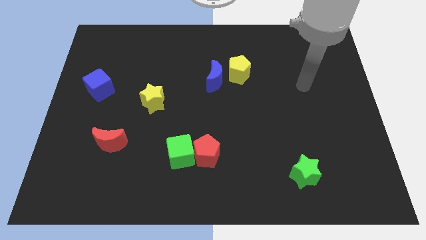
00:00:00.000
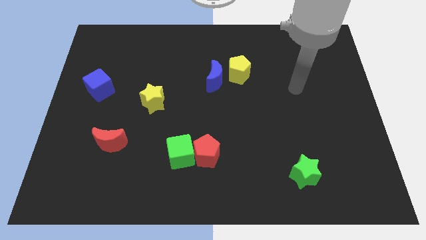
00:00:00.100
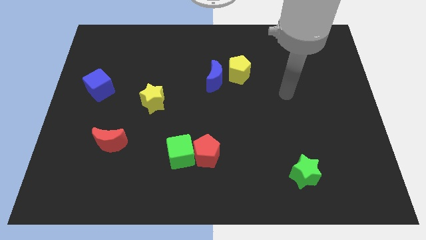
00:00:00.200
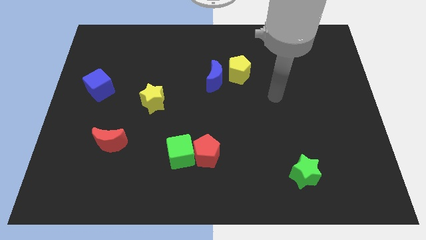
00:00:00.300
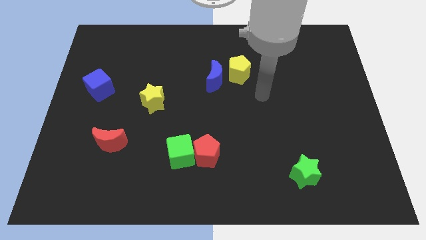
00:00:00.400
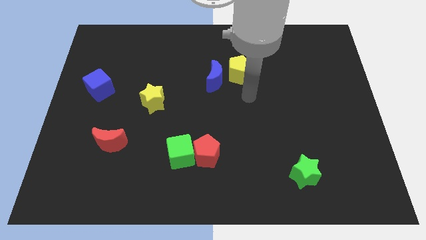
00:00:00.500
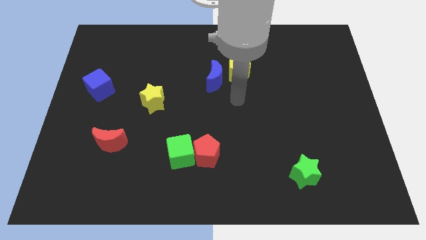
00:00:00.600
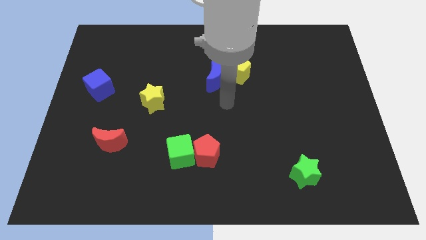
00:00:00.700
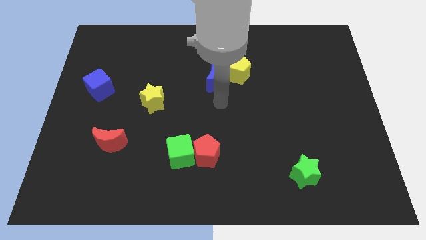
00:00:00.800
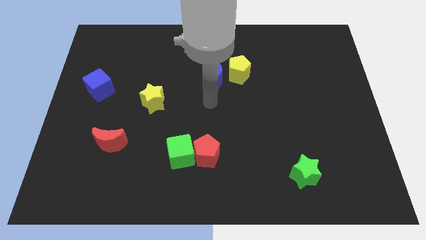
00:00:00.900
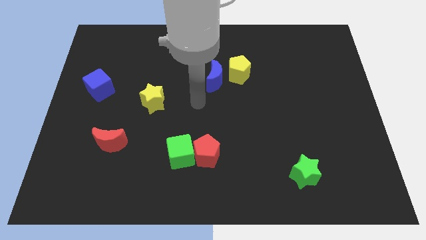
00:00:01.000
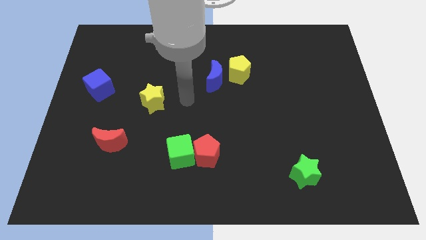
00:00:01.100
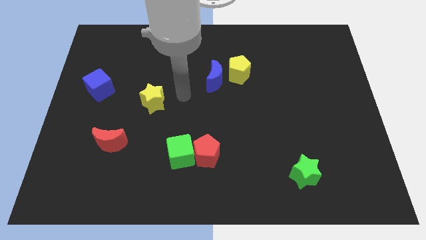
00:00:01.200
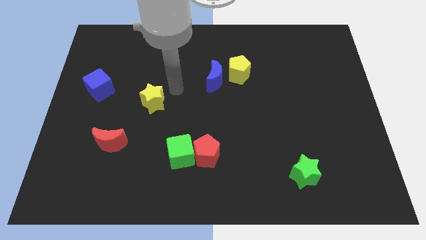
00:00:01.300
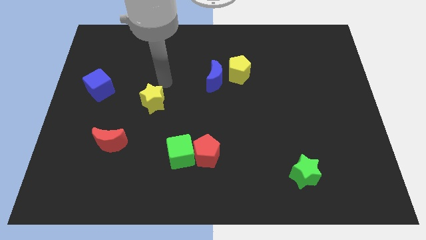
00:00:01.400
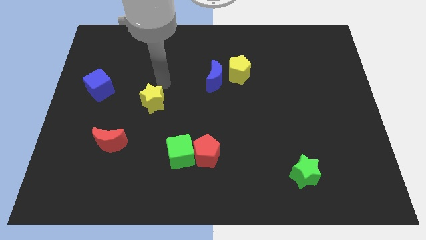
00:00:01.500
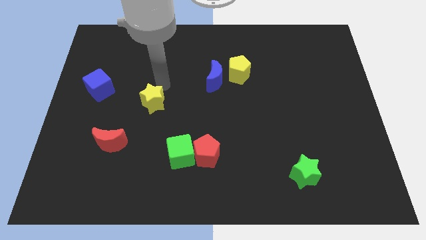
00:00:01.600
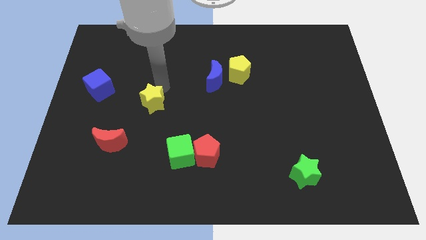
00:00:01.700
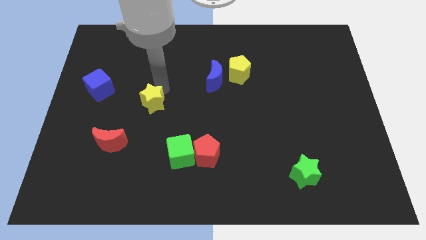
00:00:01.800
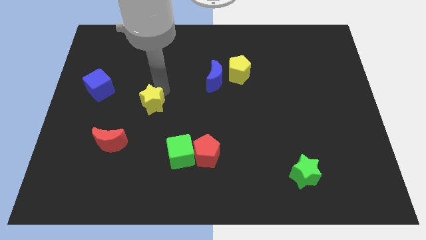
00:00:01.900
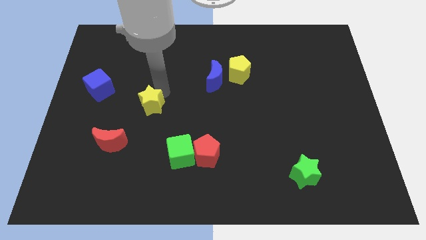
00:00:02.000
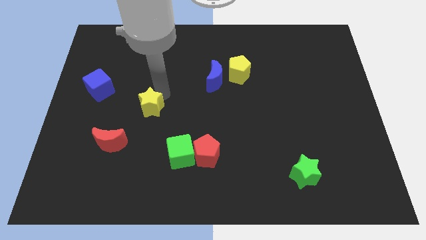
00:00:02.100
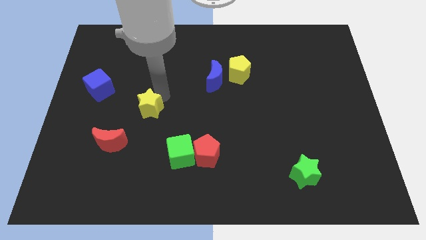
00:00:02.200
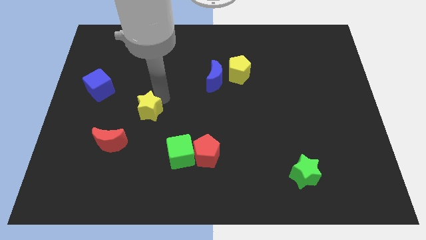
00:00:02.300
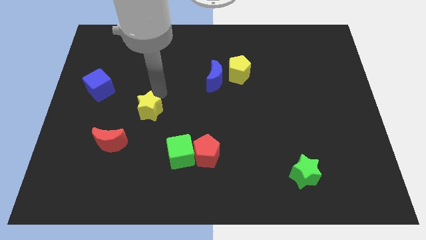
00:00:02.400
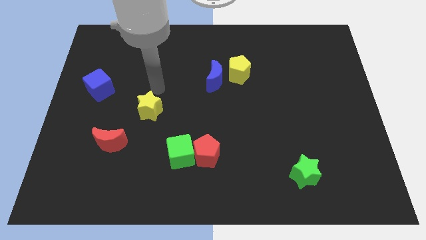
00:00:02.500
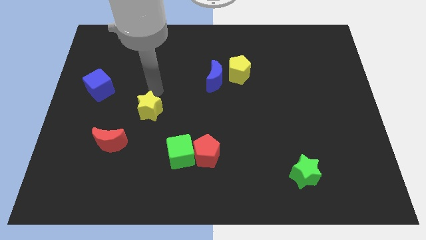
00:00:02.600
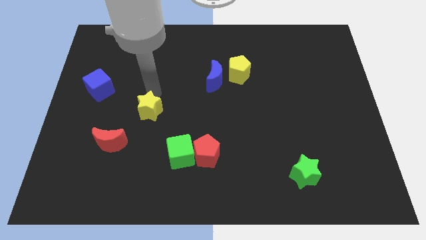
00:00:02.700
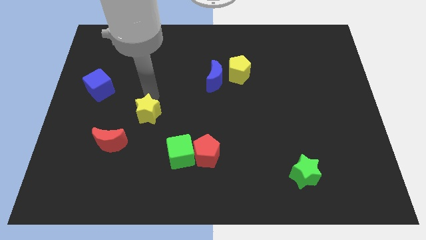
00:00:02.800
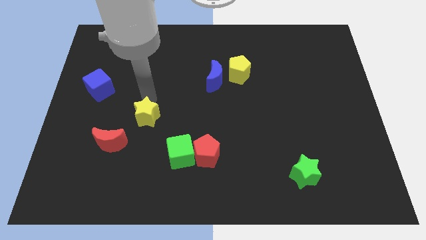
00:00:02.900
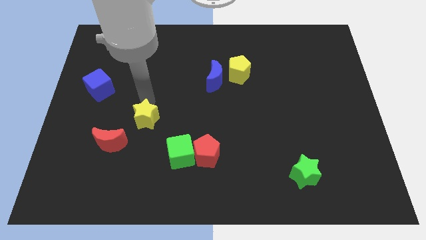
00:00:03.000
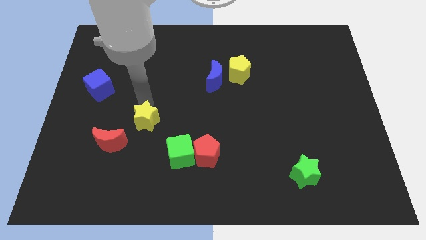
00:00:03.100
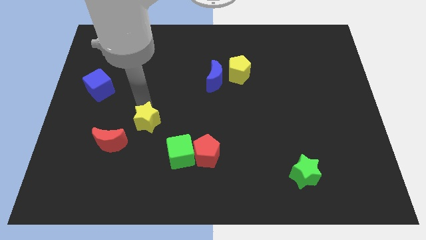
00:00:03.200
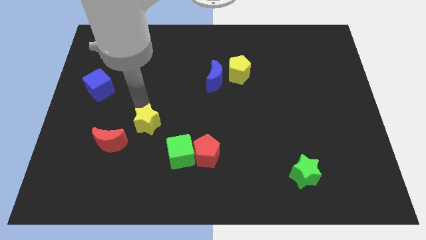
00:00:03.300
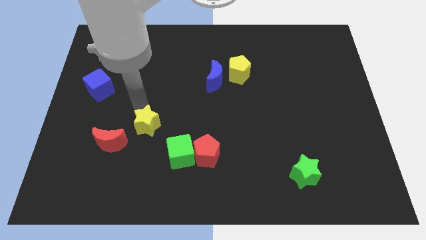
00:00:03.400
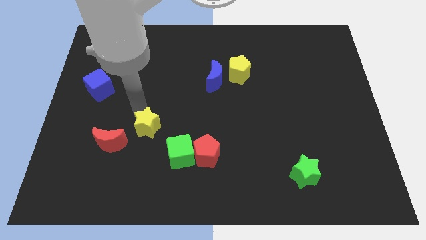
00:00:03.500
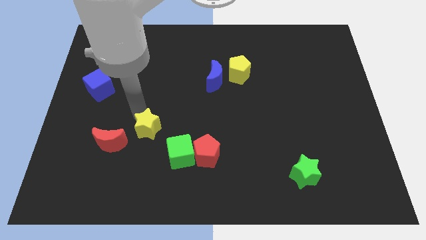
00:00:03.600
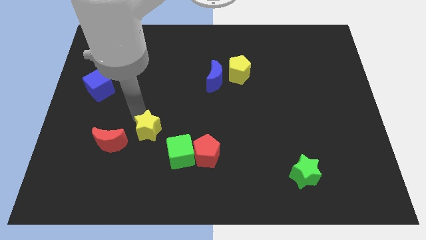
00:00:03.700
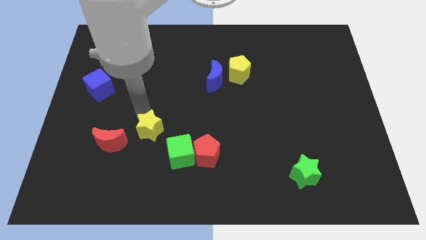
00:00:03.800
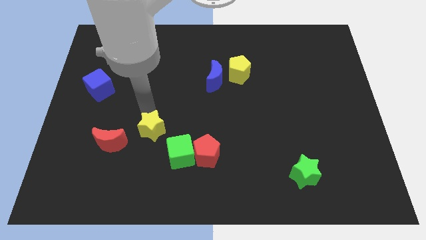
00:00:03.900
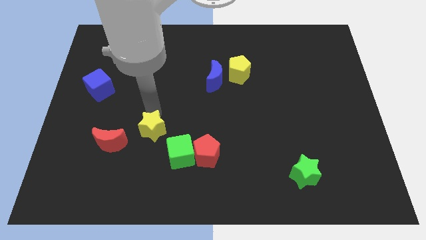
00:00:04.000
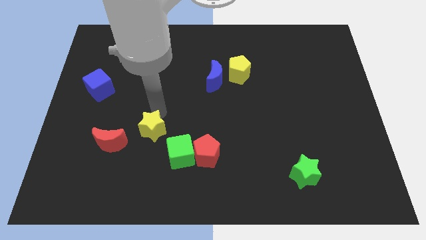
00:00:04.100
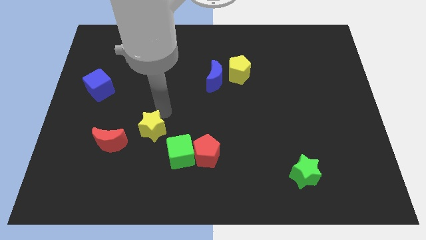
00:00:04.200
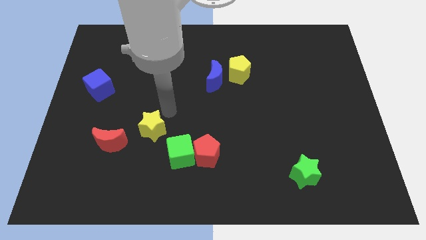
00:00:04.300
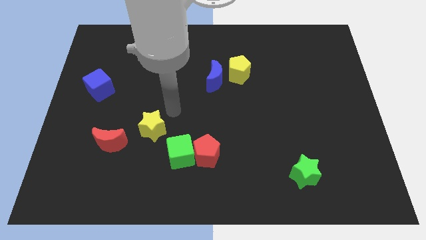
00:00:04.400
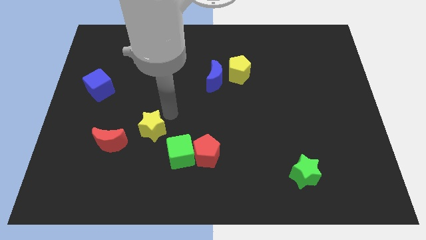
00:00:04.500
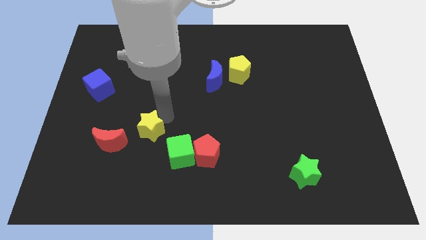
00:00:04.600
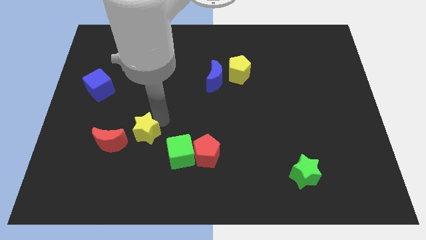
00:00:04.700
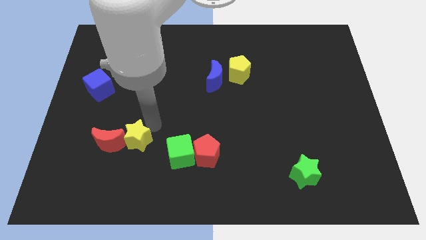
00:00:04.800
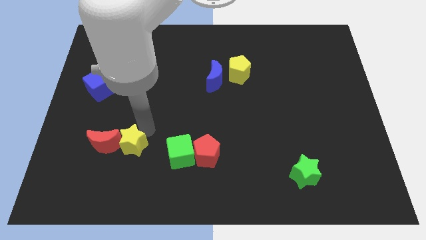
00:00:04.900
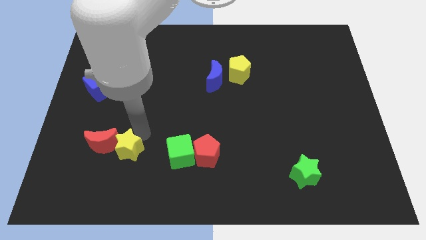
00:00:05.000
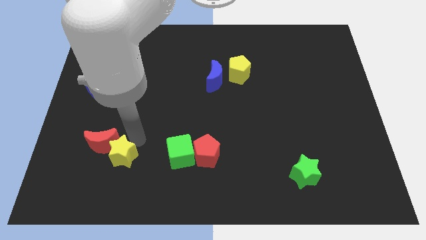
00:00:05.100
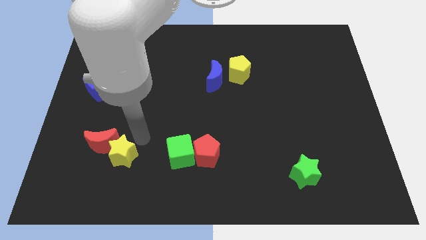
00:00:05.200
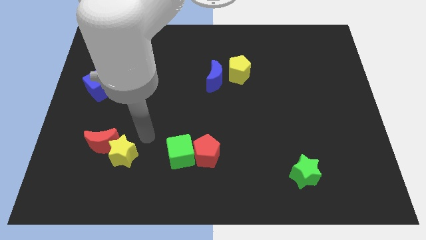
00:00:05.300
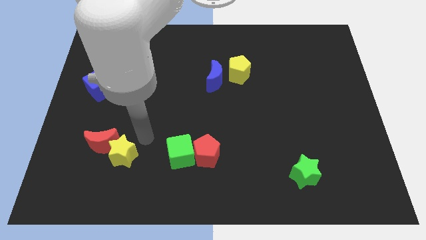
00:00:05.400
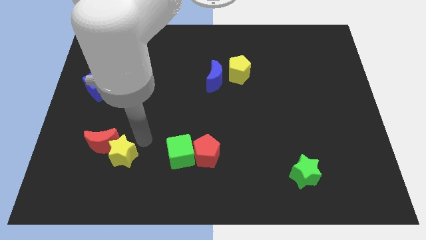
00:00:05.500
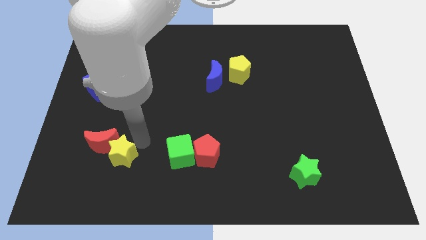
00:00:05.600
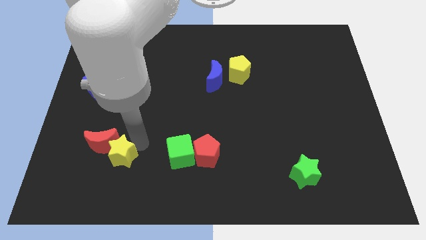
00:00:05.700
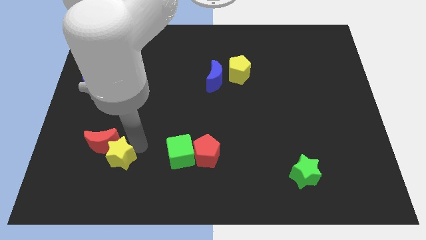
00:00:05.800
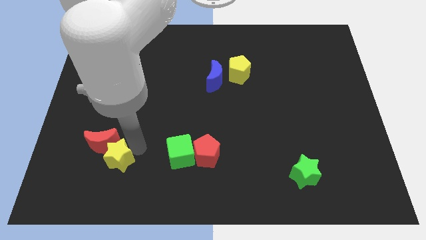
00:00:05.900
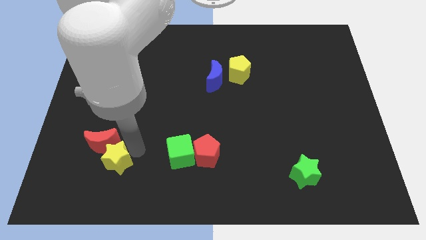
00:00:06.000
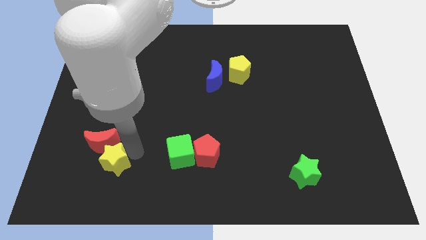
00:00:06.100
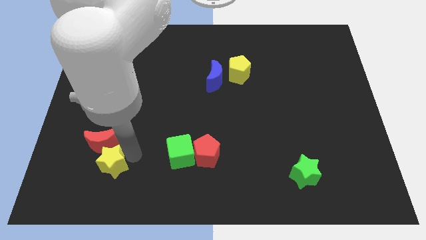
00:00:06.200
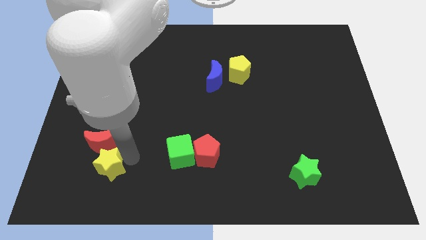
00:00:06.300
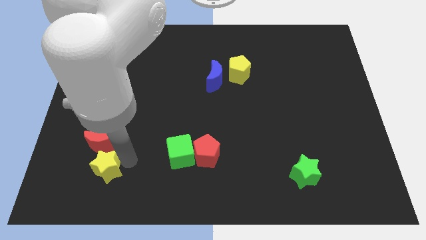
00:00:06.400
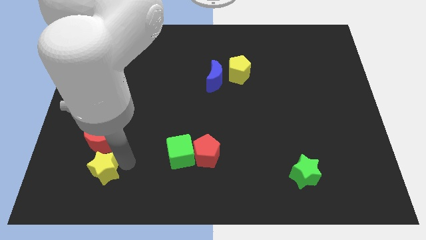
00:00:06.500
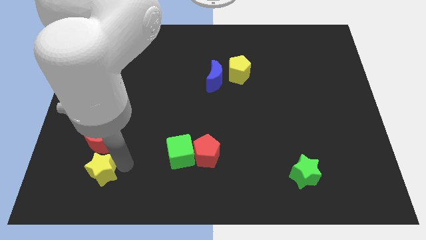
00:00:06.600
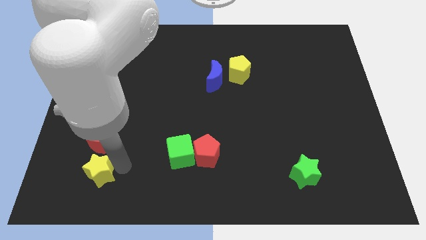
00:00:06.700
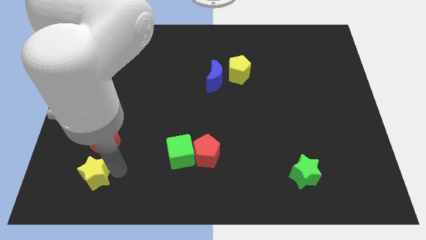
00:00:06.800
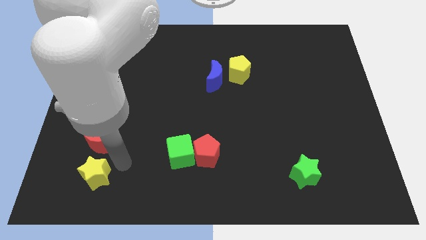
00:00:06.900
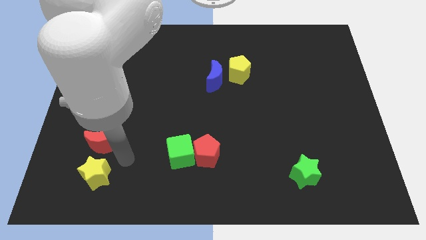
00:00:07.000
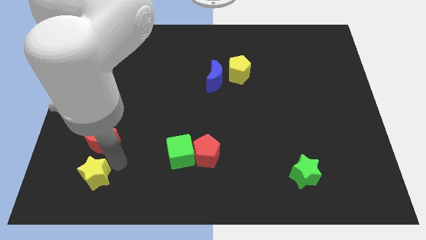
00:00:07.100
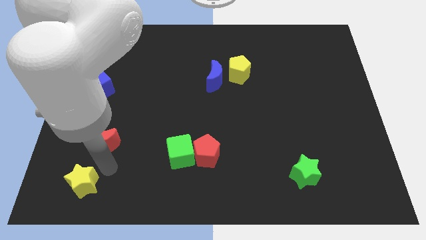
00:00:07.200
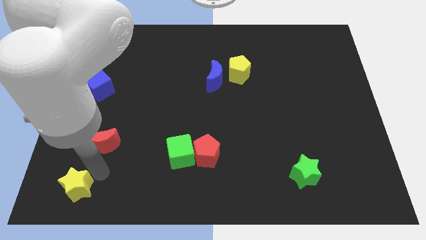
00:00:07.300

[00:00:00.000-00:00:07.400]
slide the yellow star to the bottom left corner
